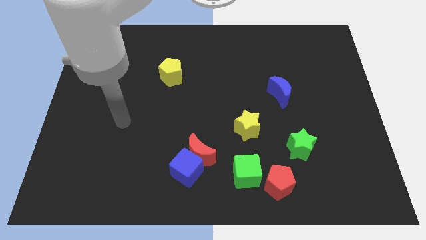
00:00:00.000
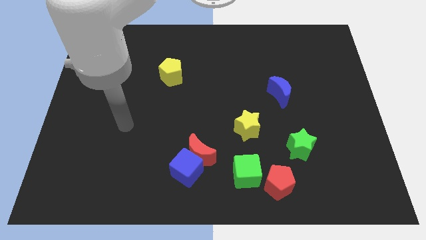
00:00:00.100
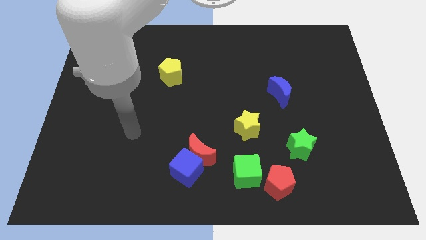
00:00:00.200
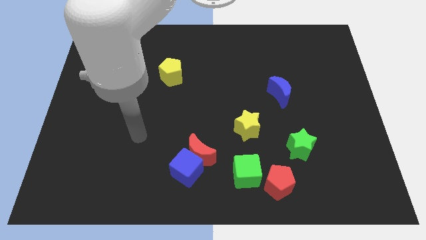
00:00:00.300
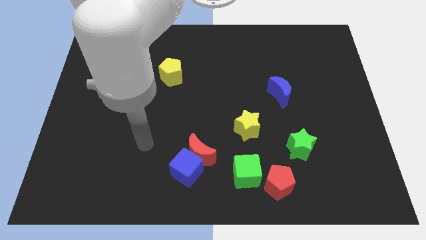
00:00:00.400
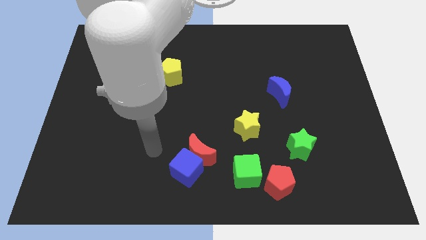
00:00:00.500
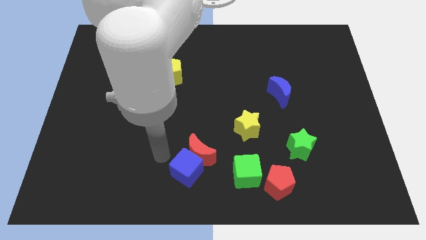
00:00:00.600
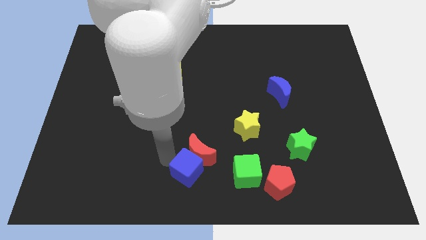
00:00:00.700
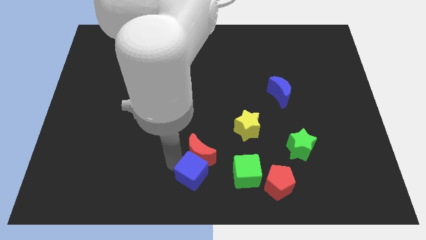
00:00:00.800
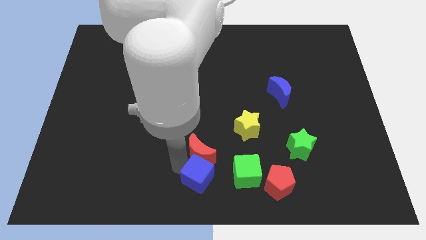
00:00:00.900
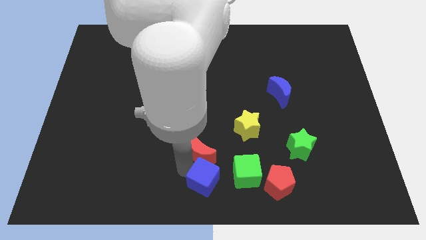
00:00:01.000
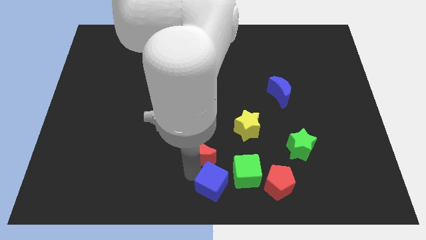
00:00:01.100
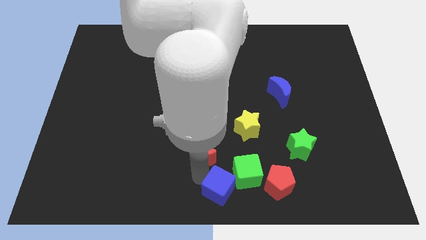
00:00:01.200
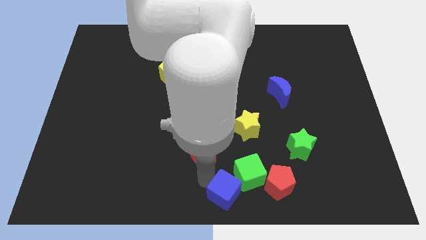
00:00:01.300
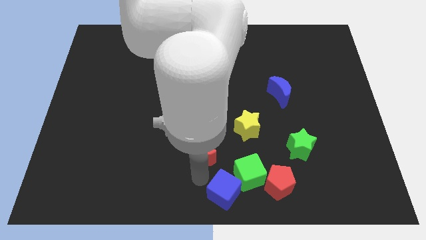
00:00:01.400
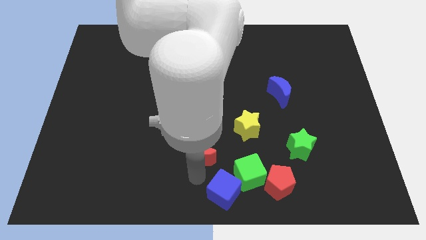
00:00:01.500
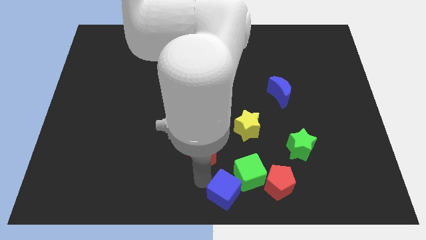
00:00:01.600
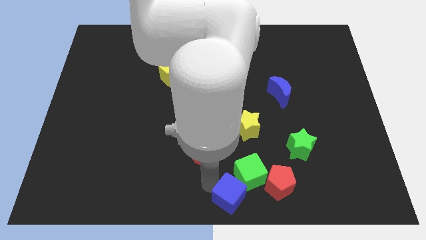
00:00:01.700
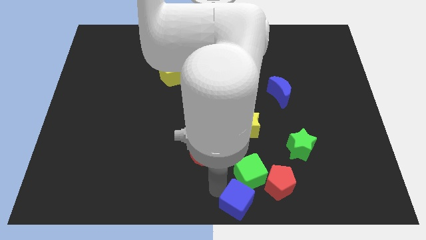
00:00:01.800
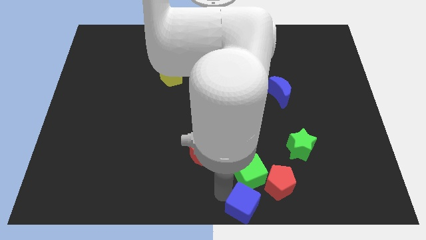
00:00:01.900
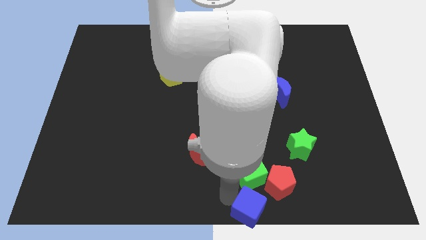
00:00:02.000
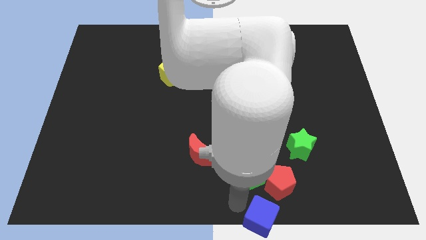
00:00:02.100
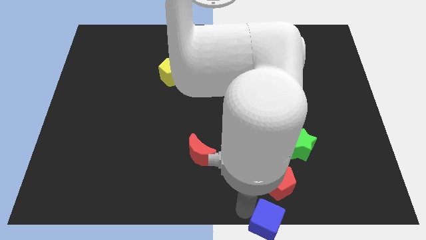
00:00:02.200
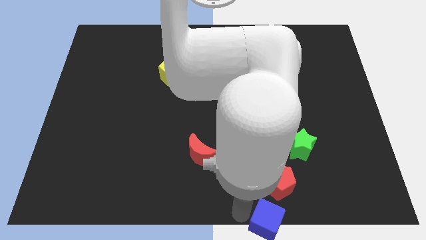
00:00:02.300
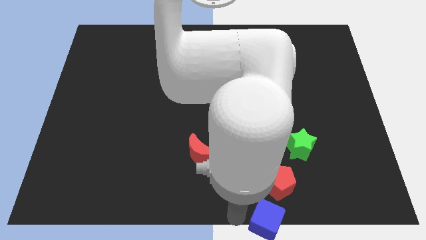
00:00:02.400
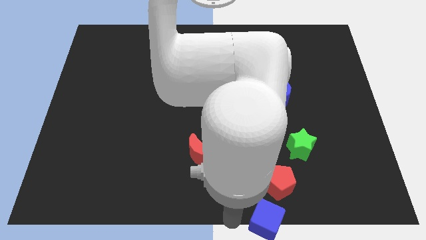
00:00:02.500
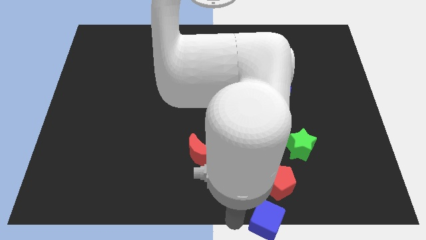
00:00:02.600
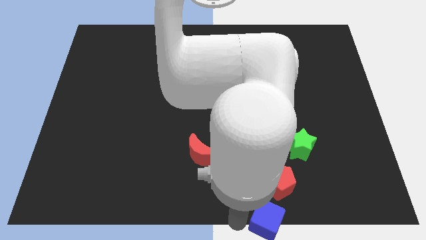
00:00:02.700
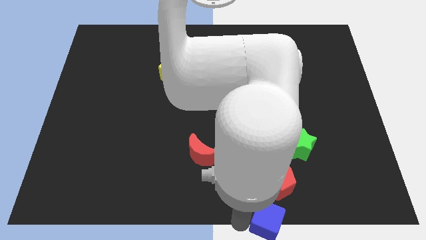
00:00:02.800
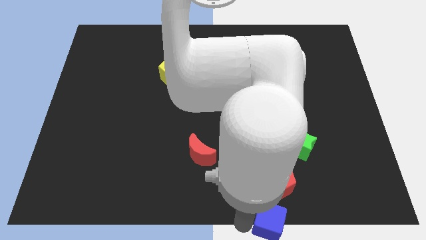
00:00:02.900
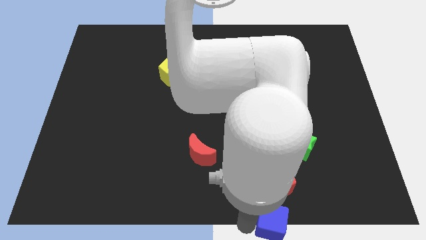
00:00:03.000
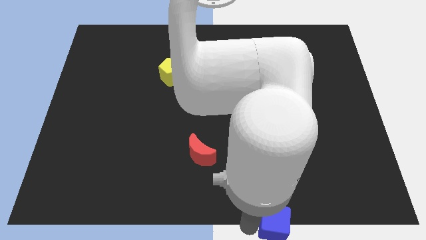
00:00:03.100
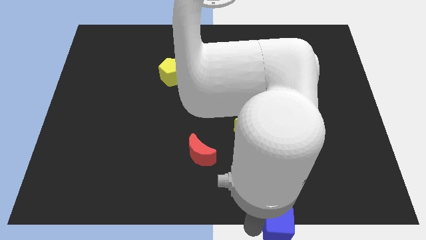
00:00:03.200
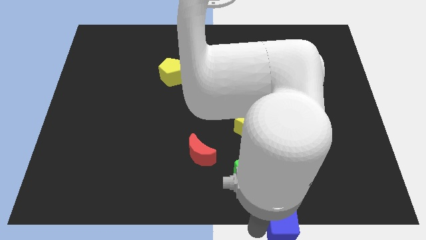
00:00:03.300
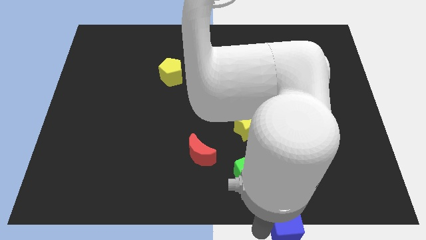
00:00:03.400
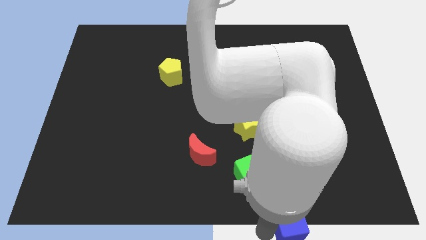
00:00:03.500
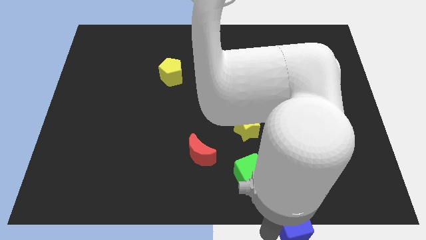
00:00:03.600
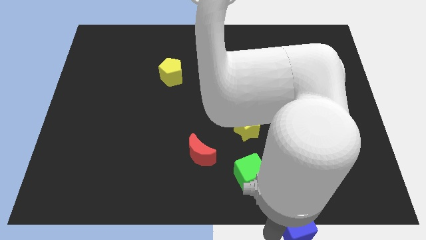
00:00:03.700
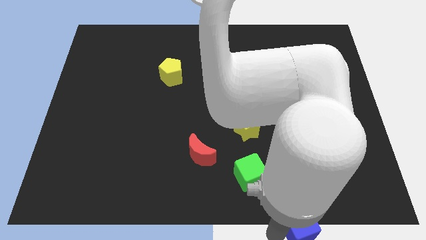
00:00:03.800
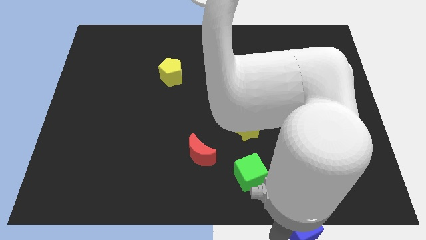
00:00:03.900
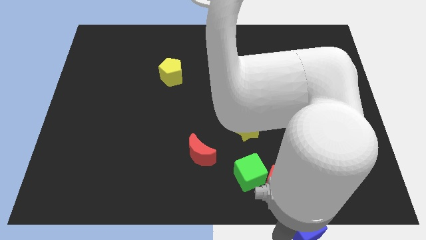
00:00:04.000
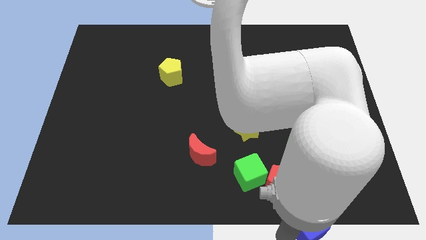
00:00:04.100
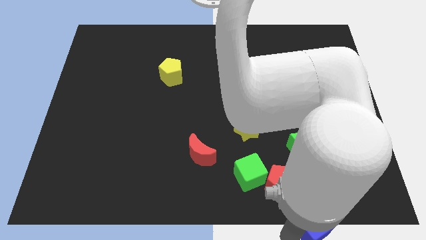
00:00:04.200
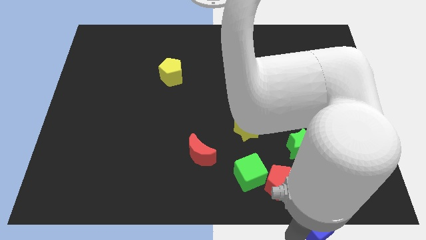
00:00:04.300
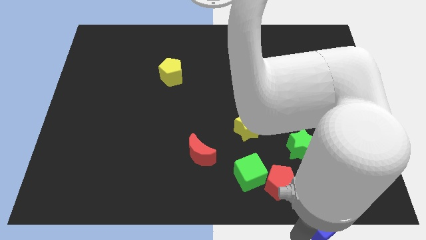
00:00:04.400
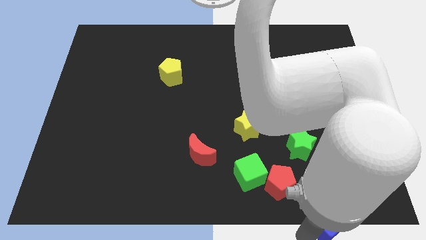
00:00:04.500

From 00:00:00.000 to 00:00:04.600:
move the blue cube right

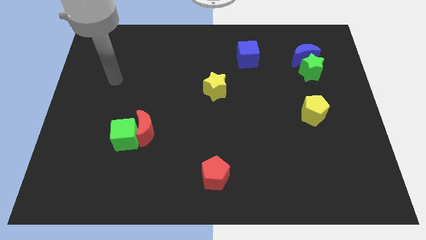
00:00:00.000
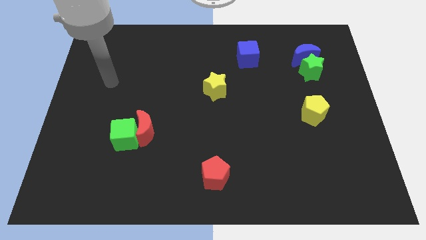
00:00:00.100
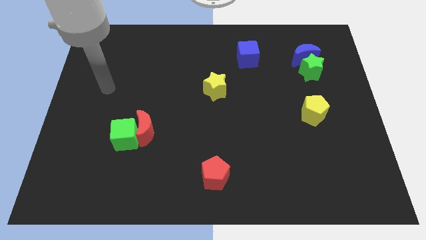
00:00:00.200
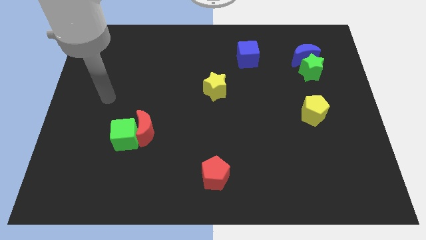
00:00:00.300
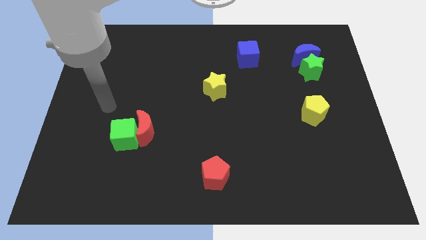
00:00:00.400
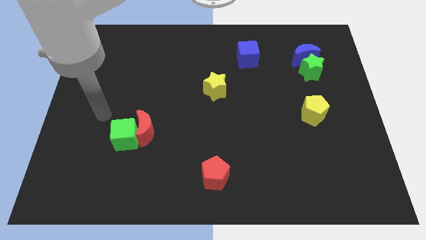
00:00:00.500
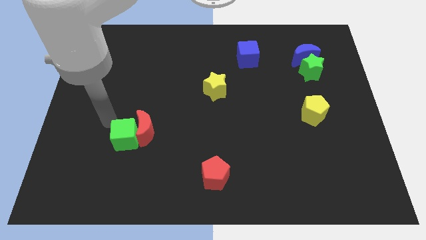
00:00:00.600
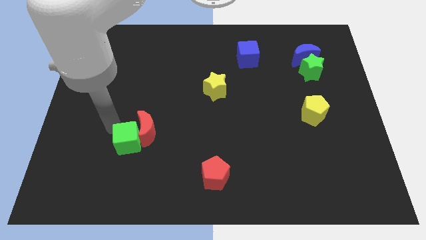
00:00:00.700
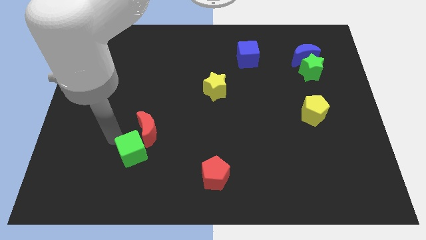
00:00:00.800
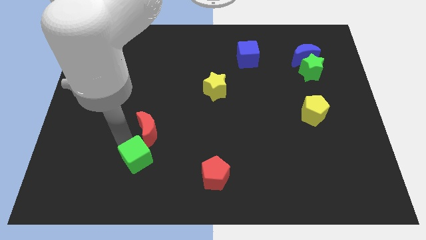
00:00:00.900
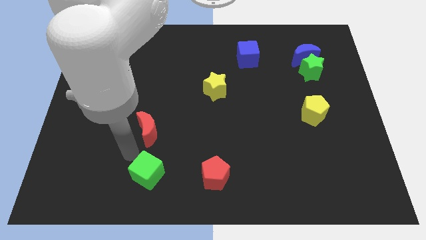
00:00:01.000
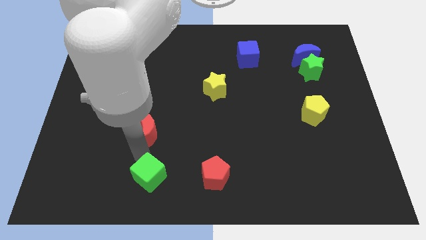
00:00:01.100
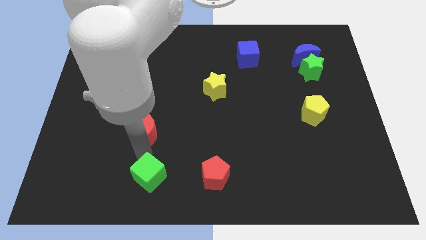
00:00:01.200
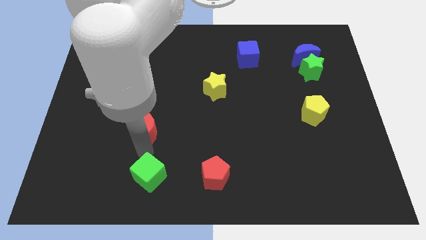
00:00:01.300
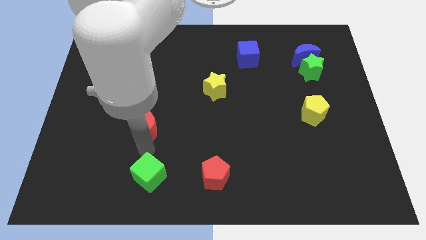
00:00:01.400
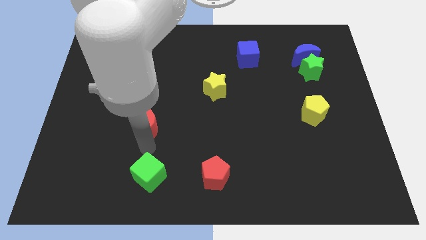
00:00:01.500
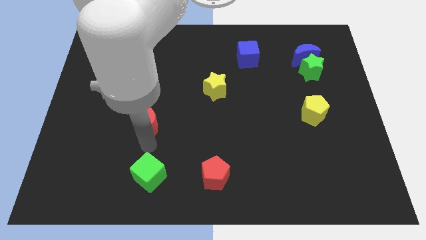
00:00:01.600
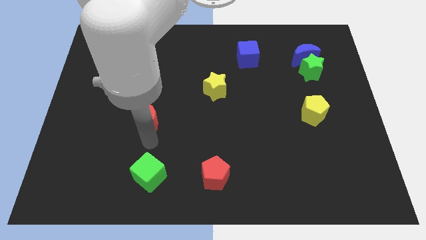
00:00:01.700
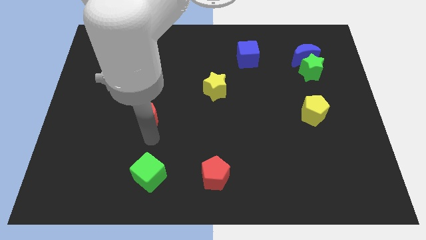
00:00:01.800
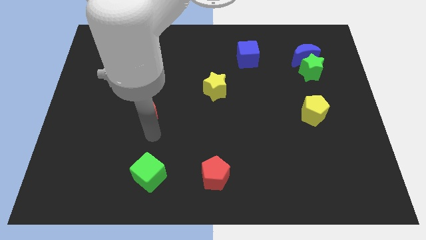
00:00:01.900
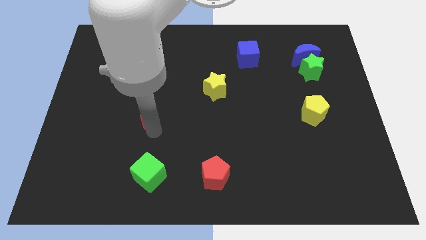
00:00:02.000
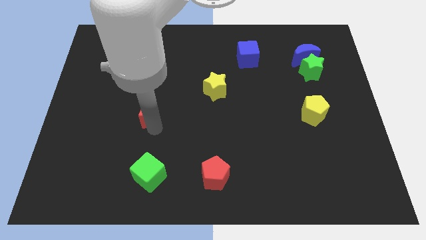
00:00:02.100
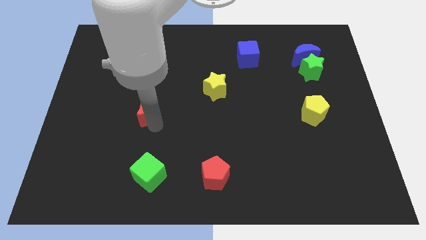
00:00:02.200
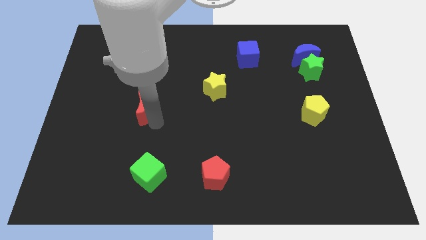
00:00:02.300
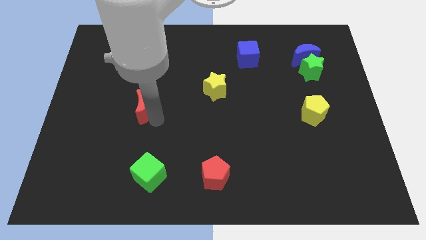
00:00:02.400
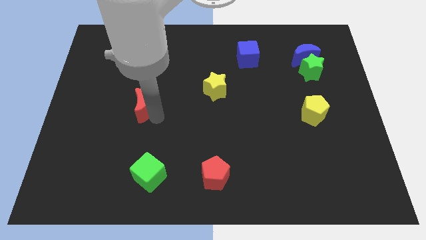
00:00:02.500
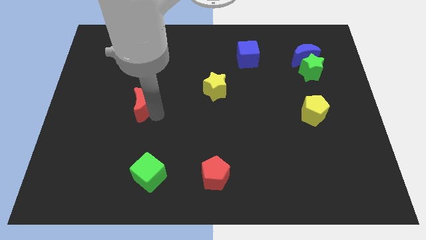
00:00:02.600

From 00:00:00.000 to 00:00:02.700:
slightly slide the red moon up

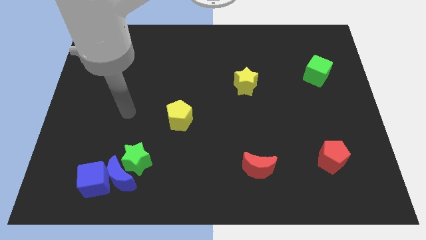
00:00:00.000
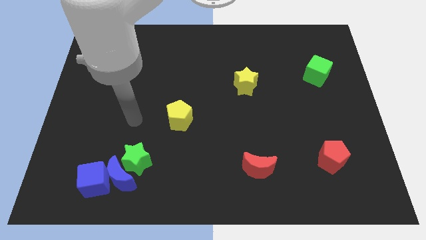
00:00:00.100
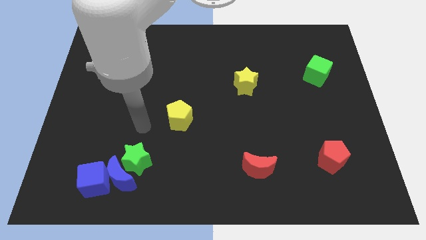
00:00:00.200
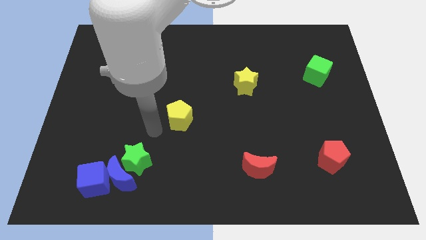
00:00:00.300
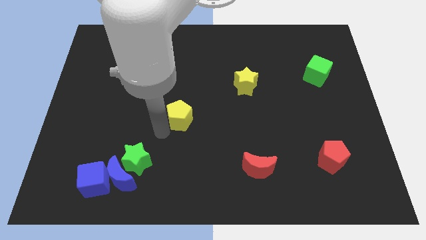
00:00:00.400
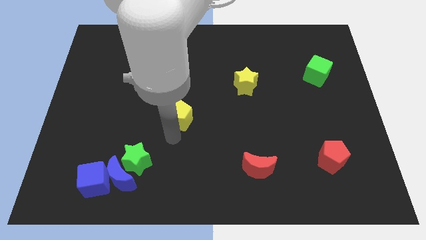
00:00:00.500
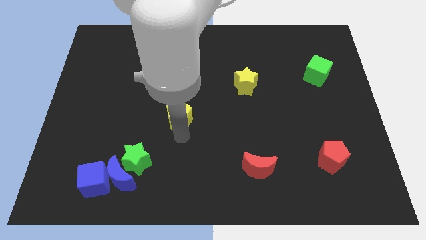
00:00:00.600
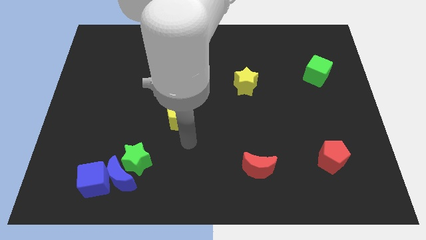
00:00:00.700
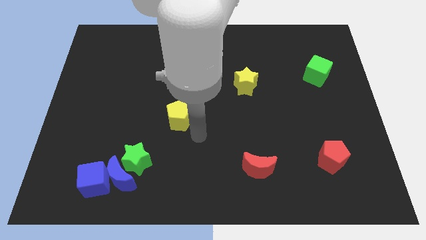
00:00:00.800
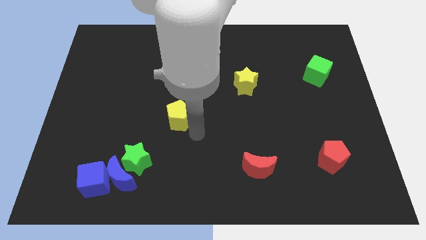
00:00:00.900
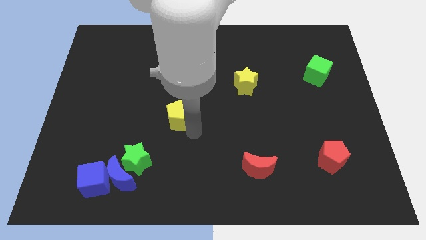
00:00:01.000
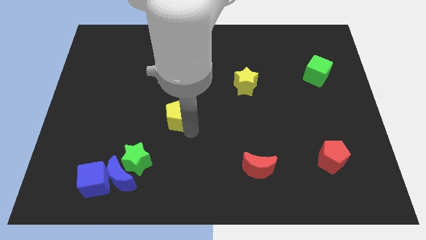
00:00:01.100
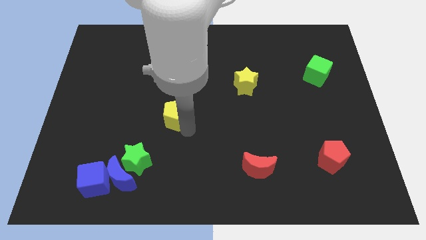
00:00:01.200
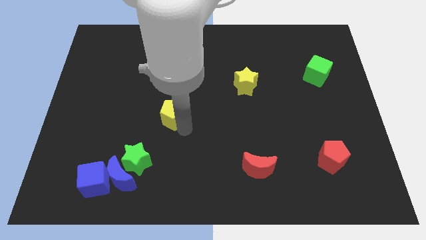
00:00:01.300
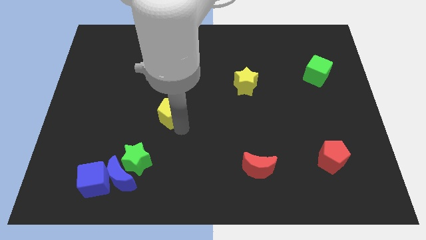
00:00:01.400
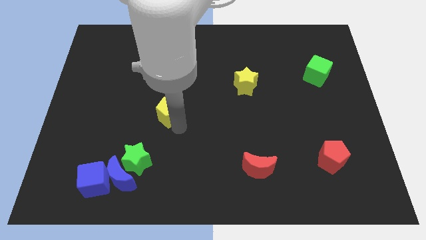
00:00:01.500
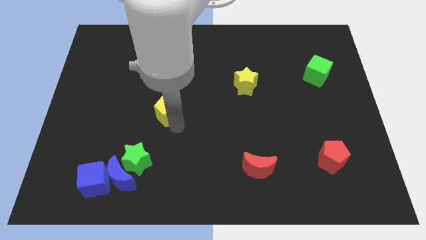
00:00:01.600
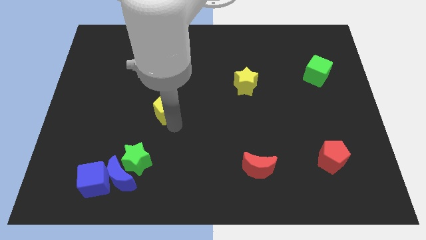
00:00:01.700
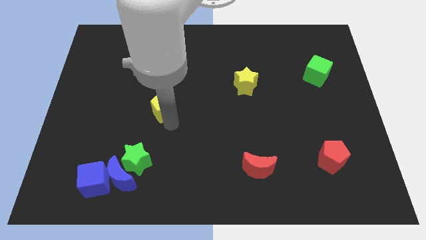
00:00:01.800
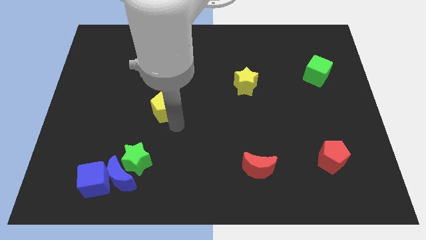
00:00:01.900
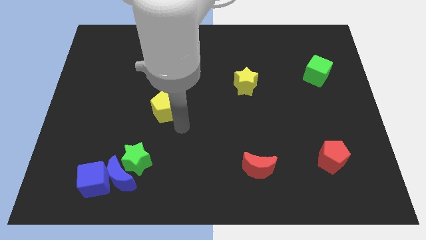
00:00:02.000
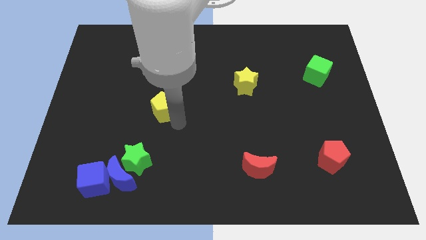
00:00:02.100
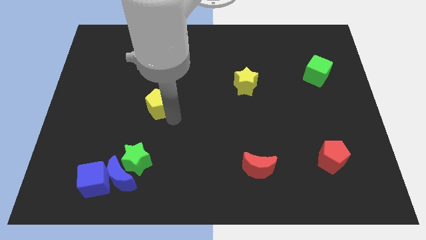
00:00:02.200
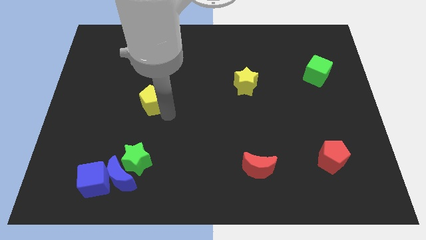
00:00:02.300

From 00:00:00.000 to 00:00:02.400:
move the yellow pentagon diagonally upwards and to the left somewhat
